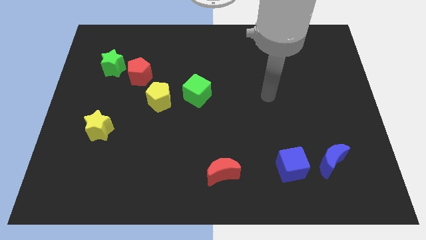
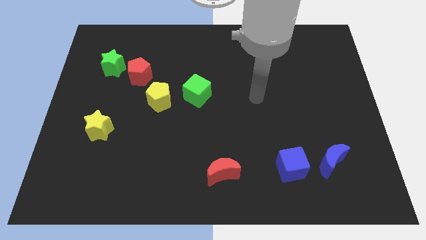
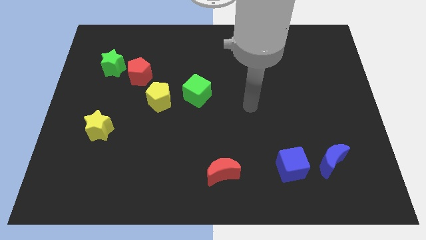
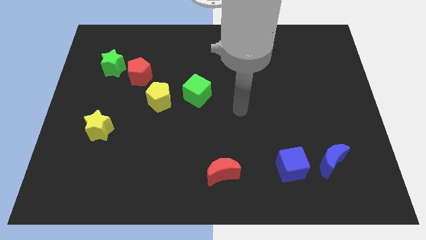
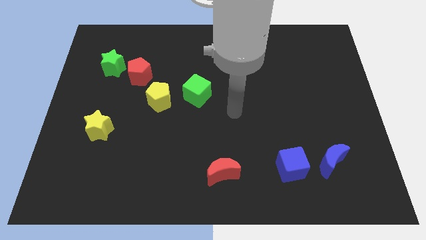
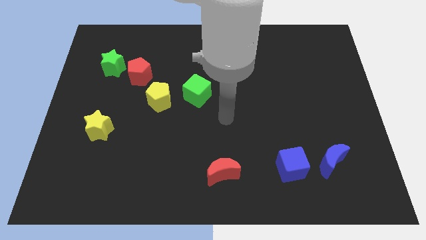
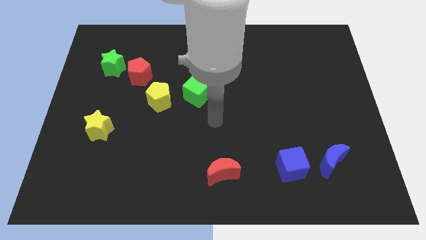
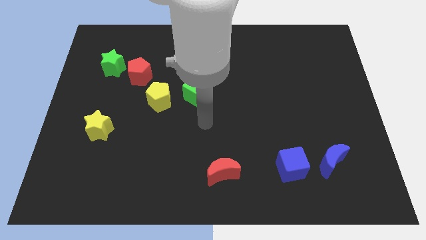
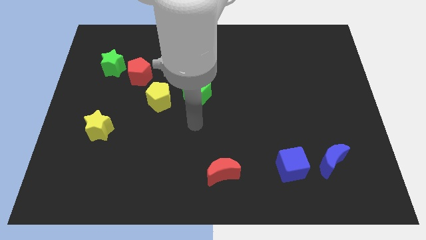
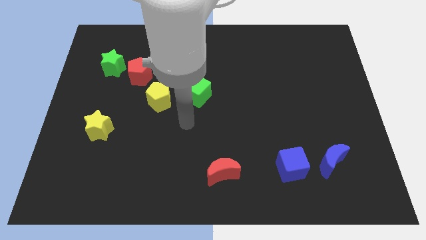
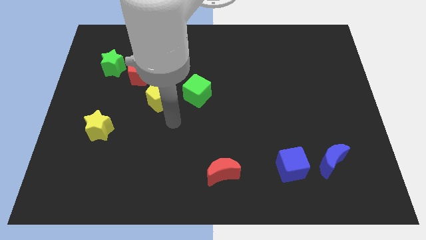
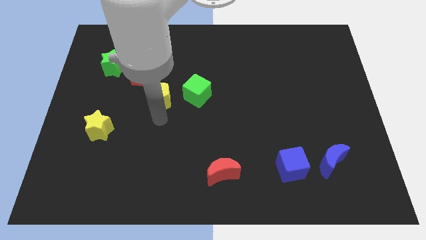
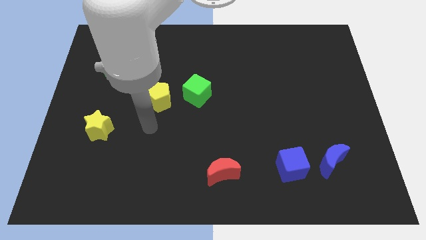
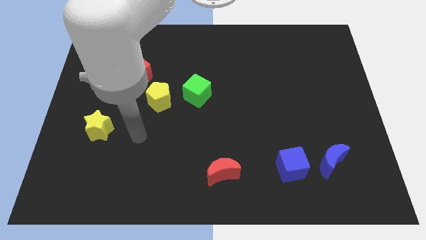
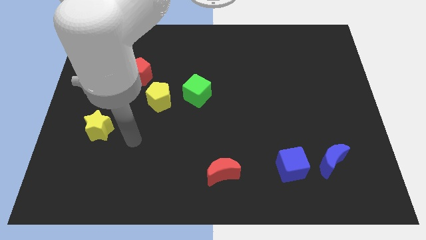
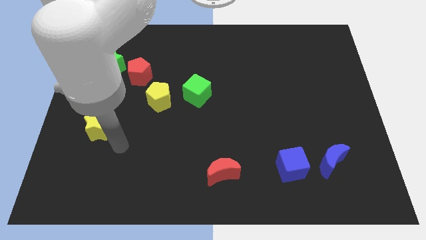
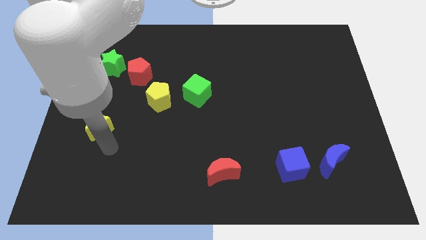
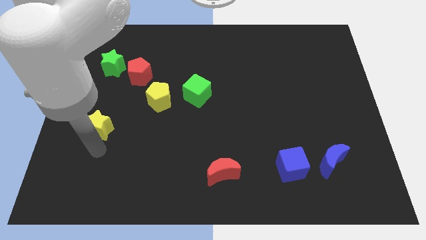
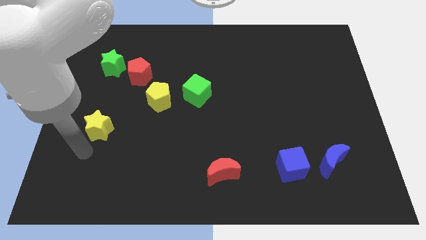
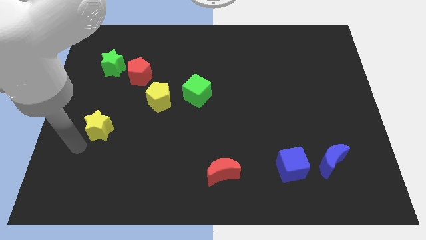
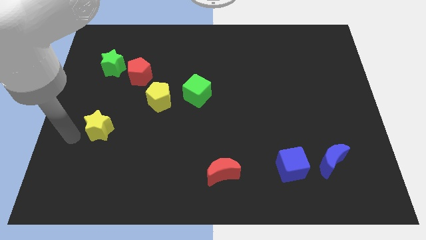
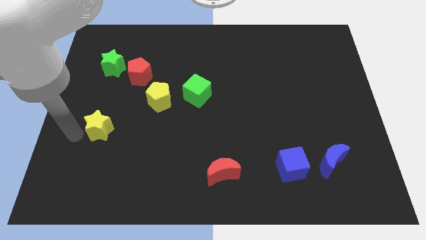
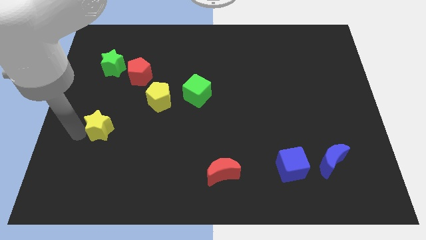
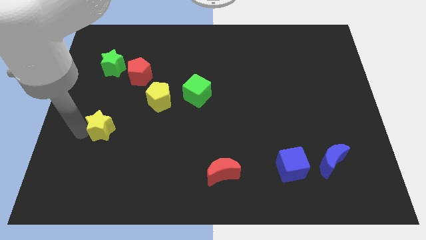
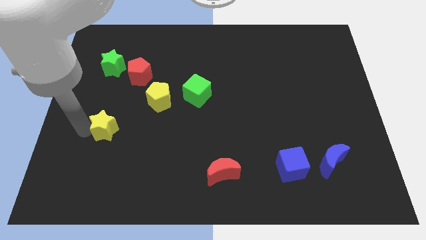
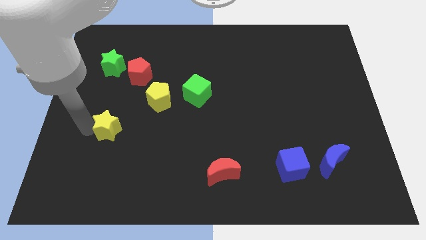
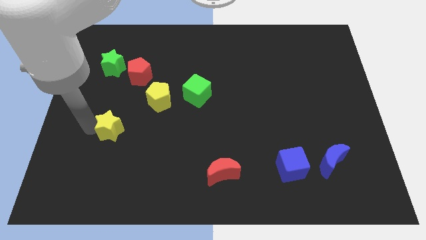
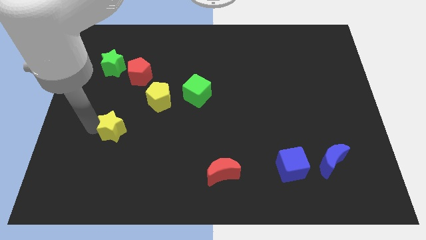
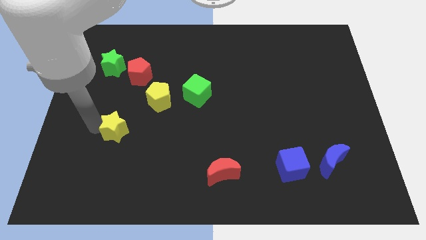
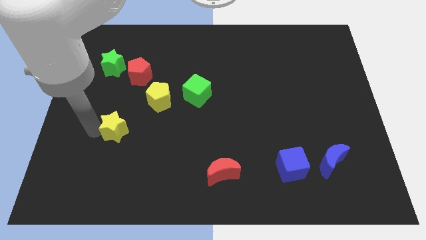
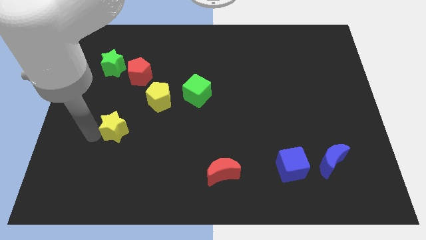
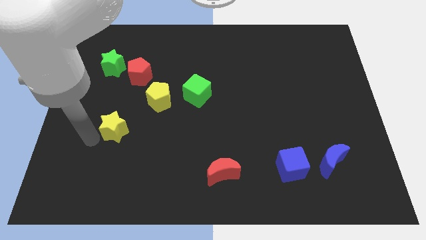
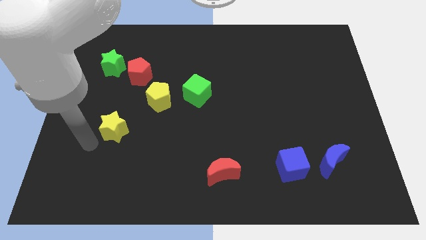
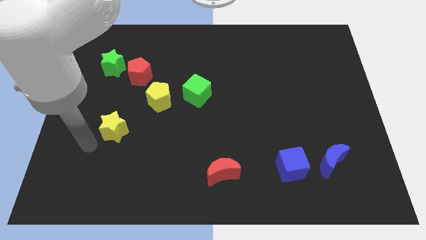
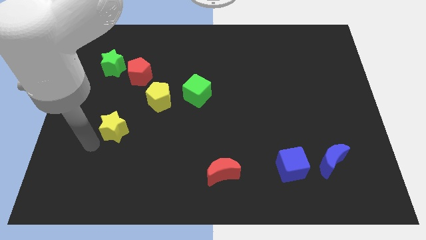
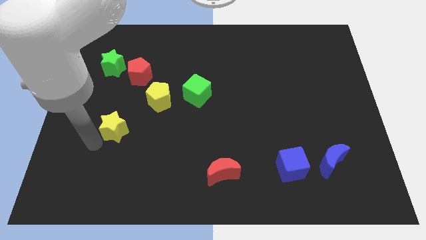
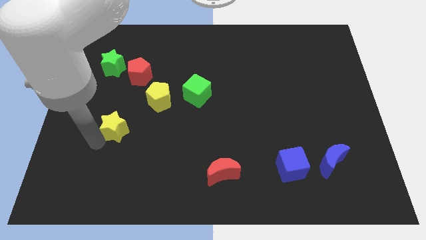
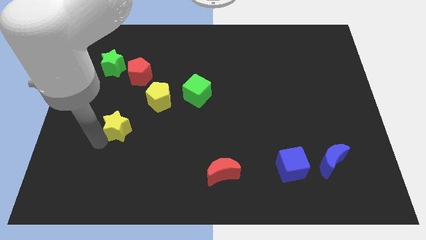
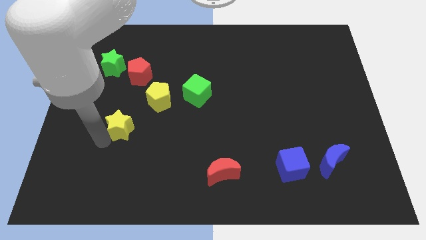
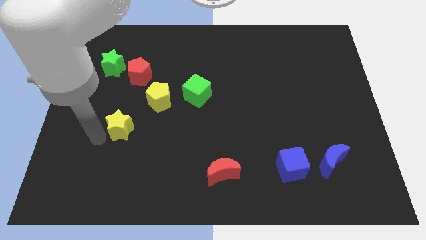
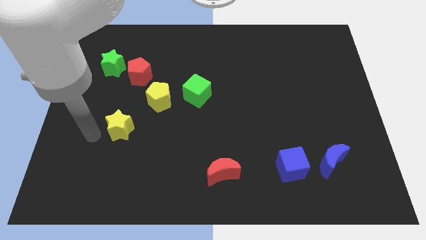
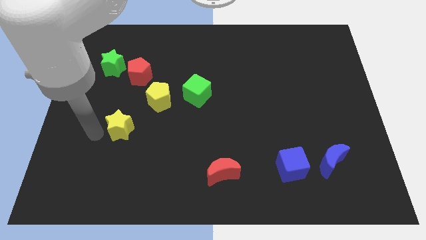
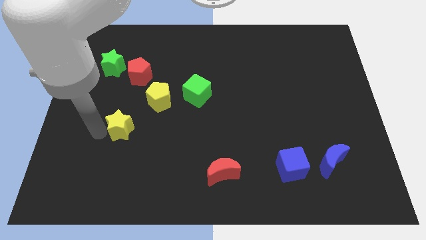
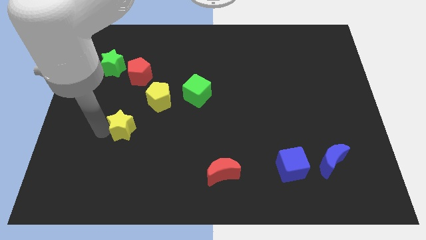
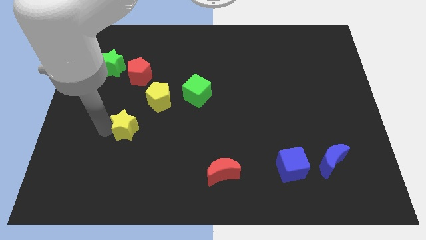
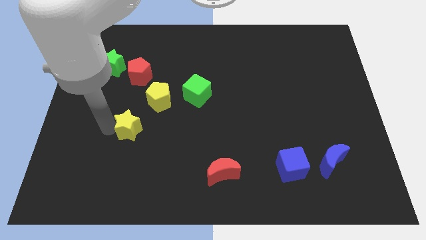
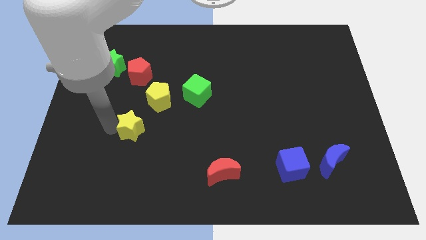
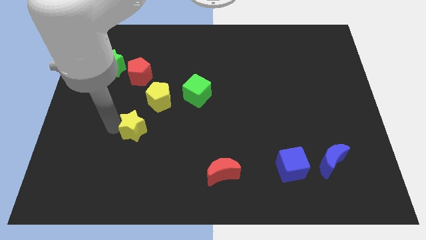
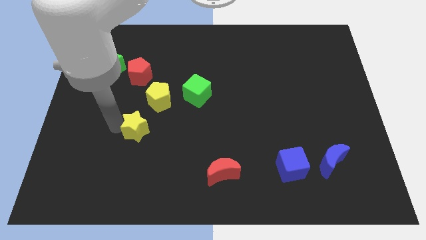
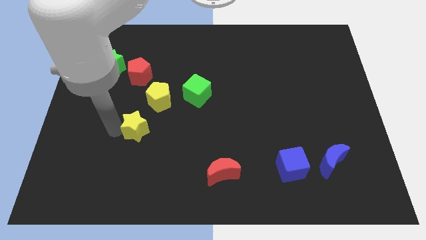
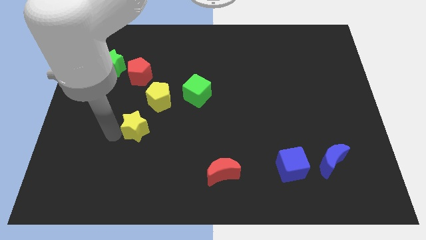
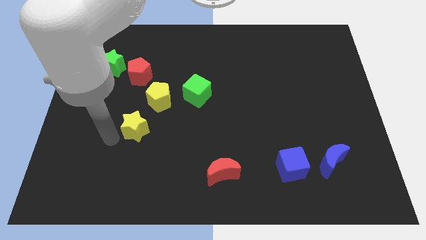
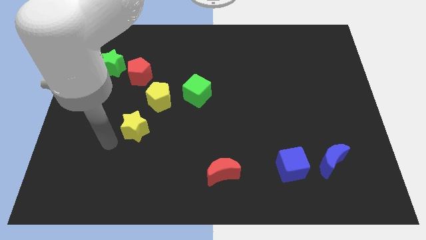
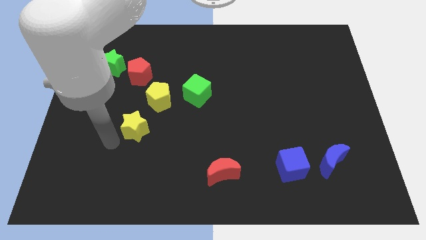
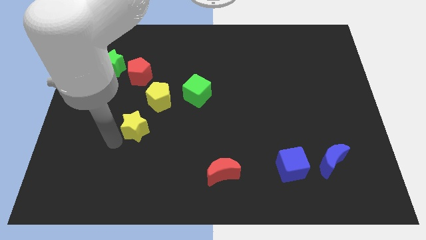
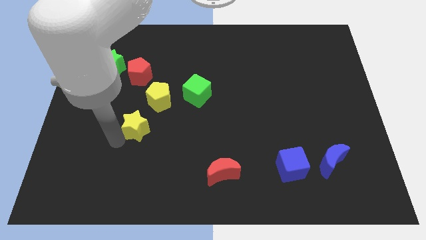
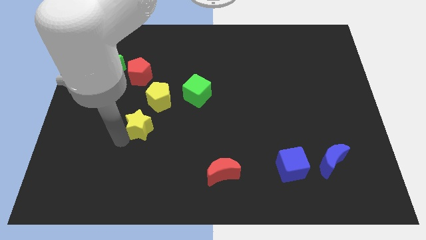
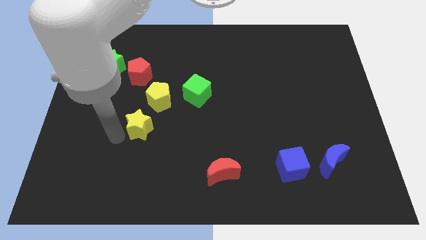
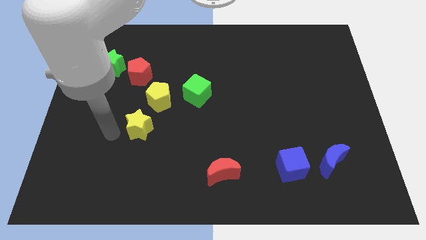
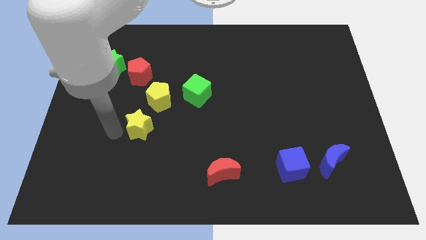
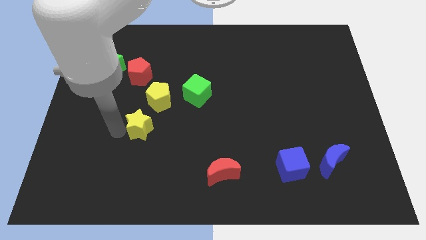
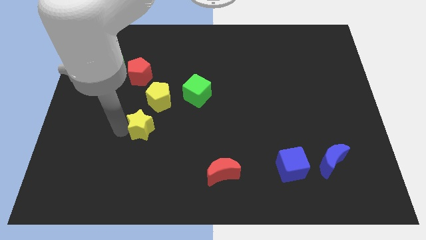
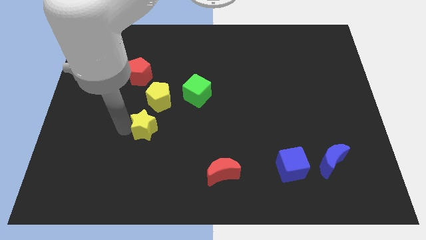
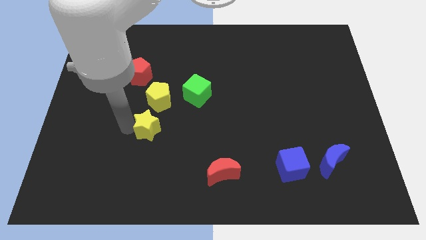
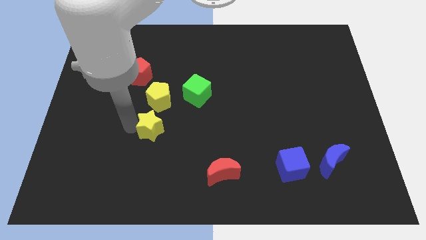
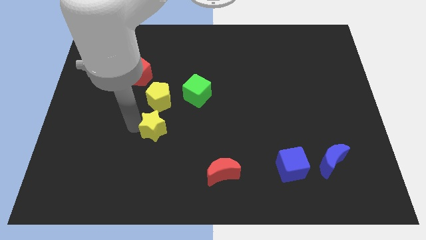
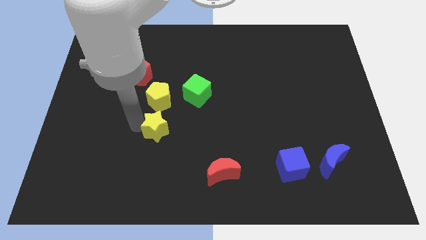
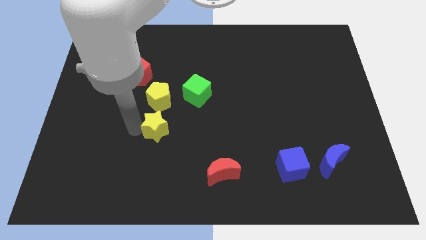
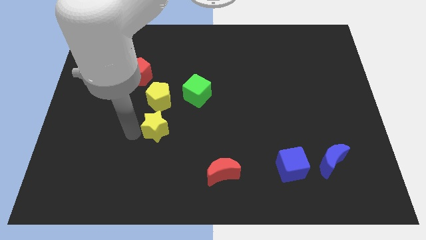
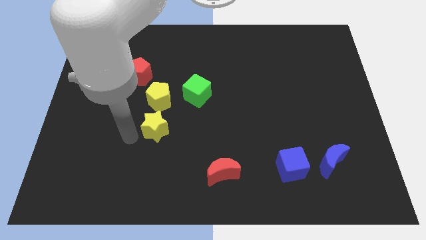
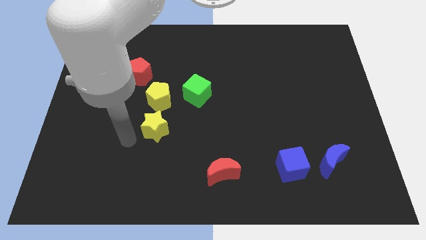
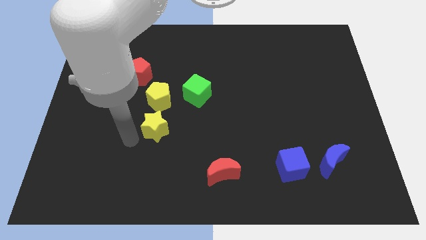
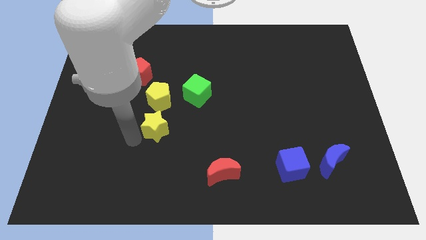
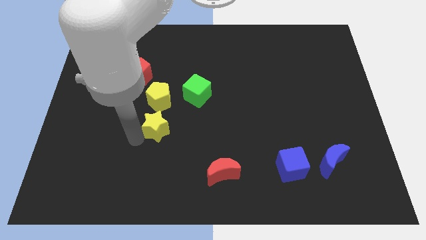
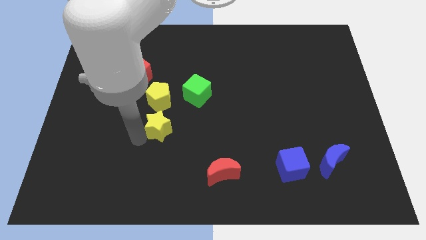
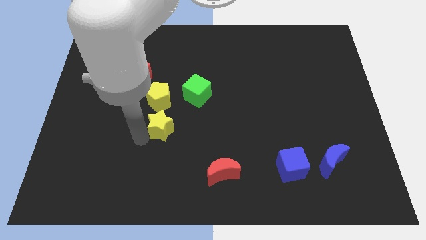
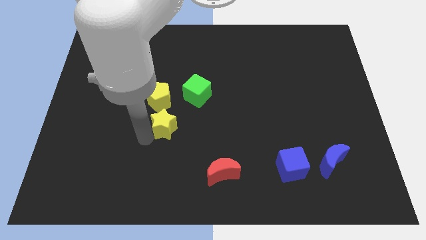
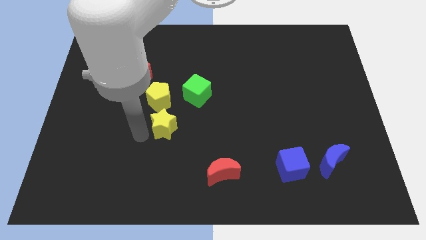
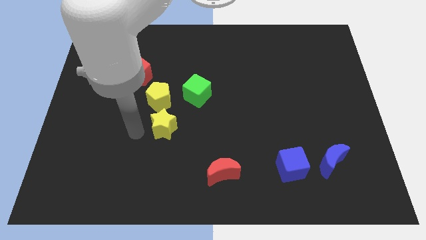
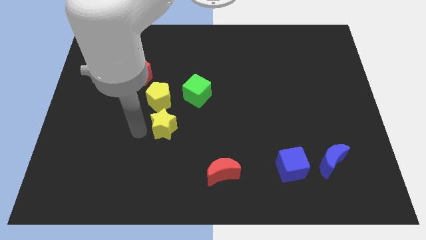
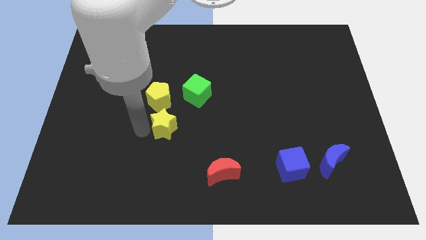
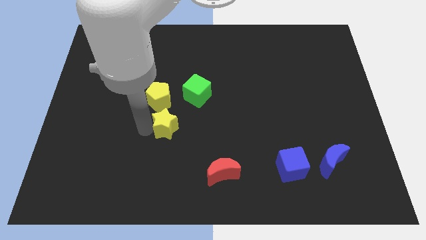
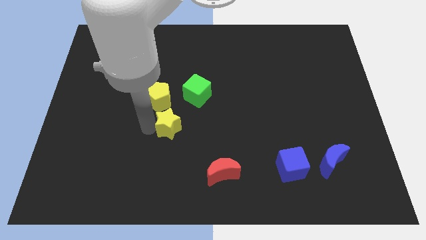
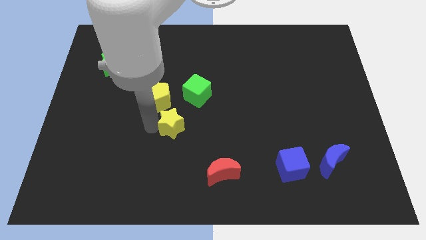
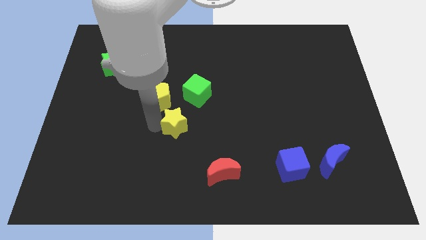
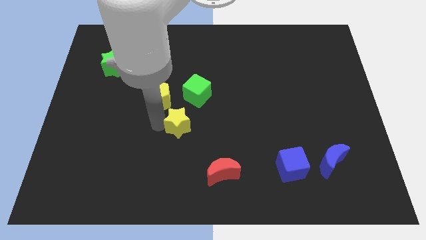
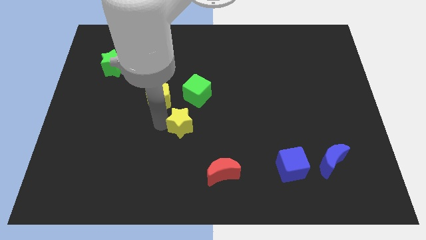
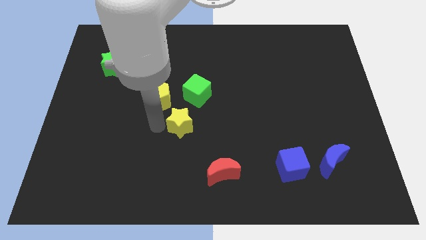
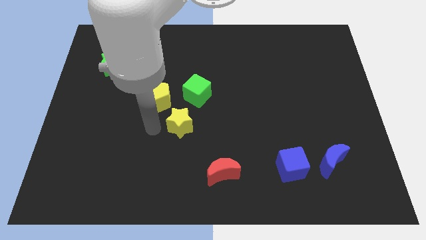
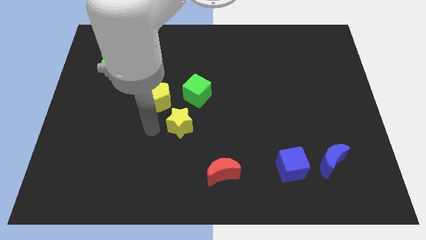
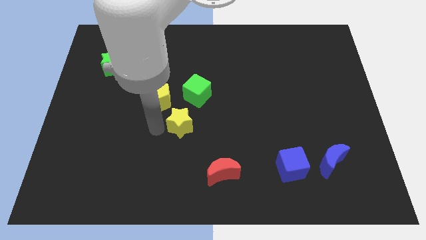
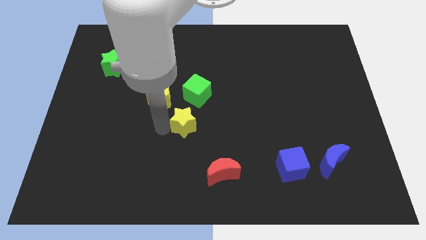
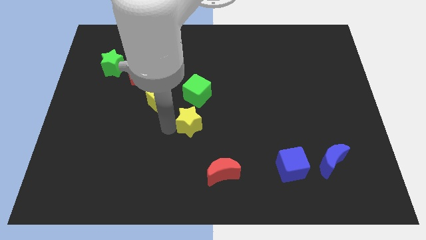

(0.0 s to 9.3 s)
slide the yellow star right
